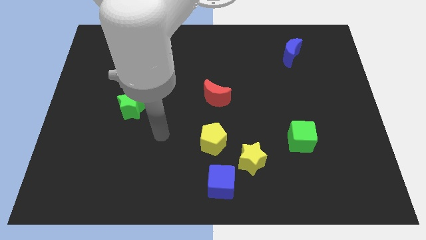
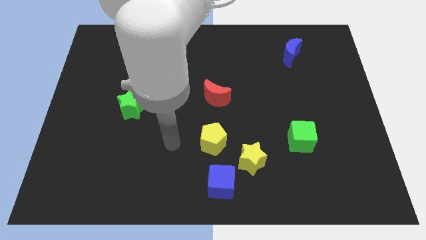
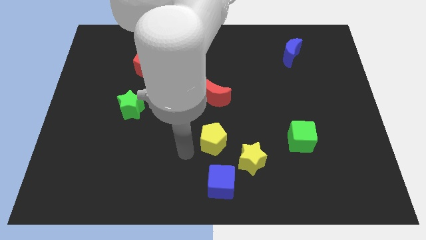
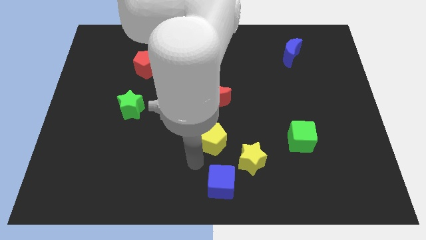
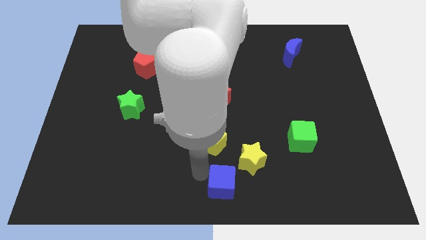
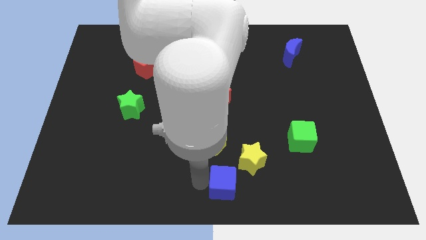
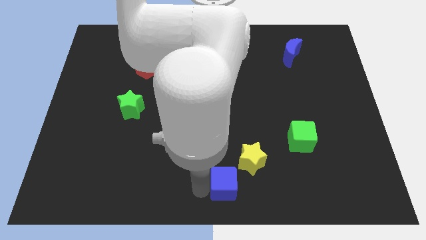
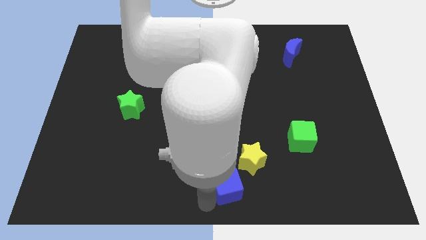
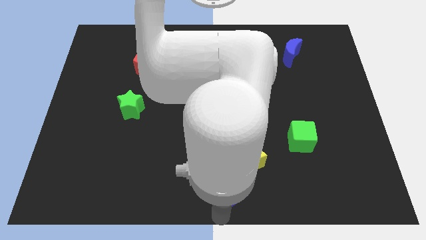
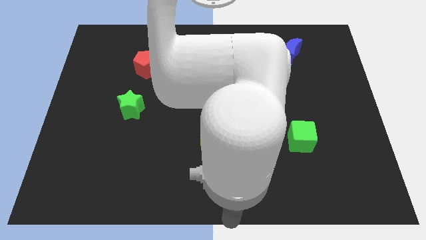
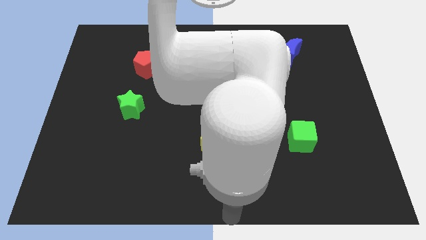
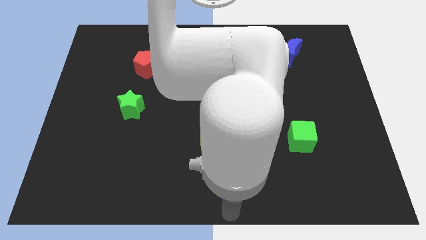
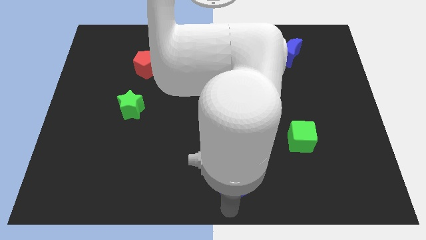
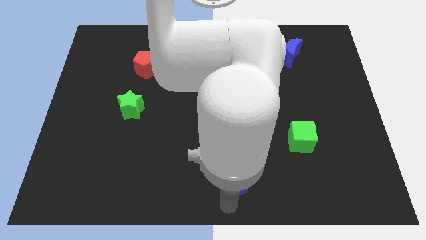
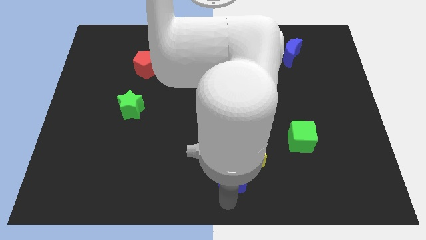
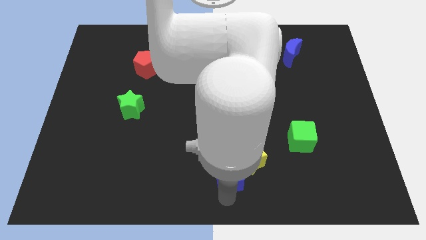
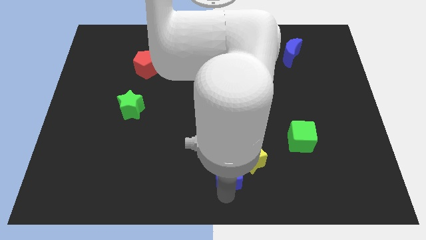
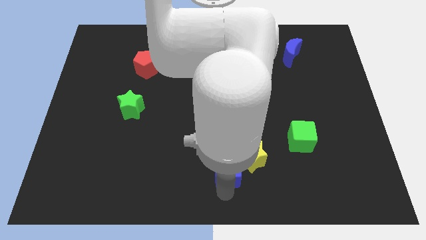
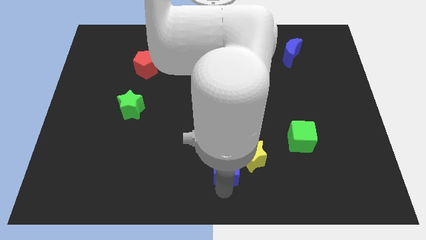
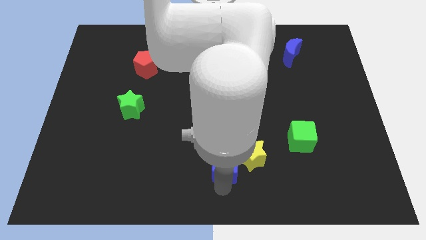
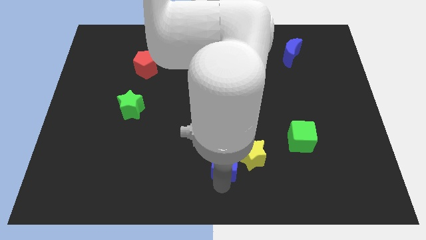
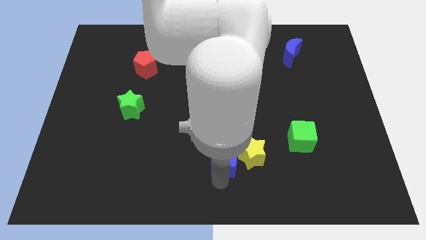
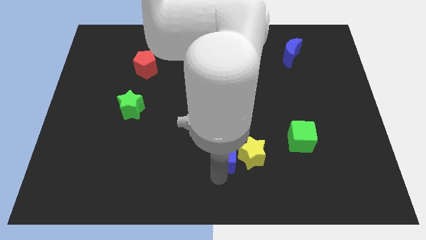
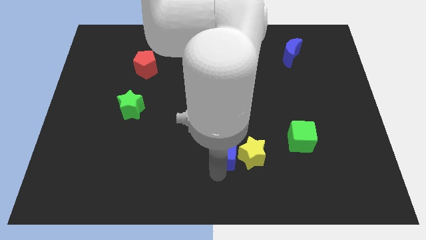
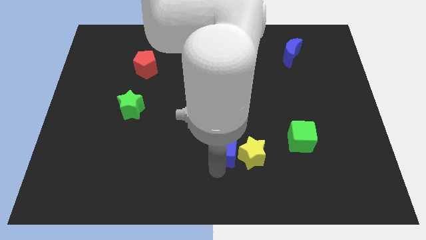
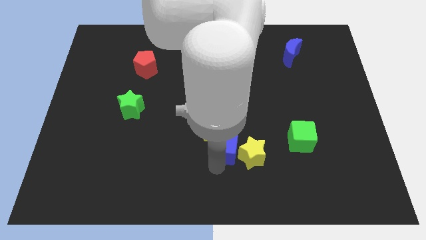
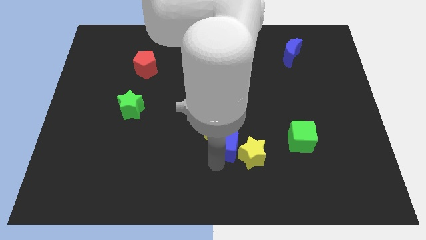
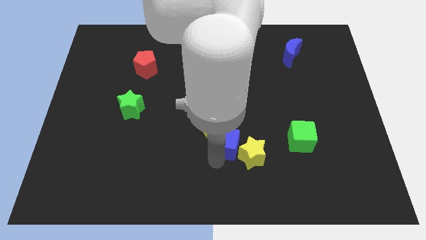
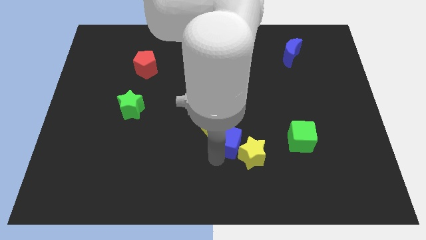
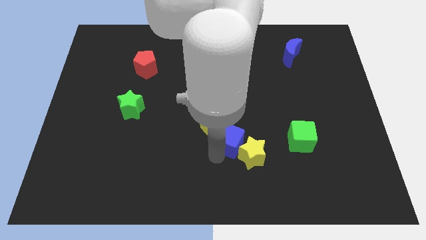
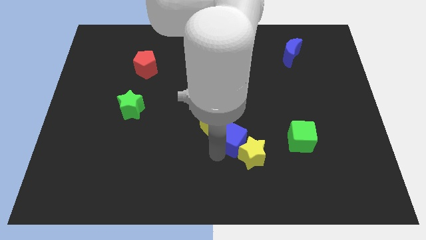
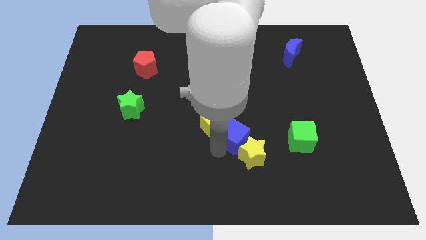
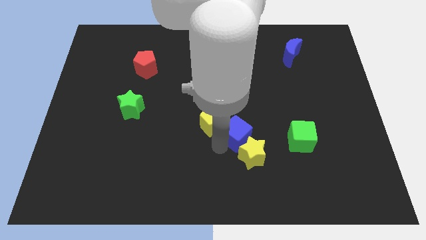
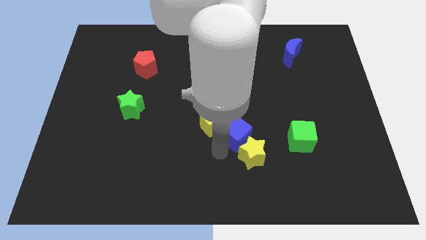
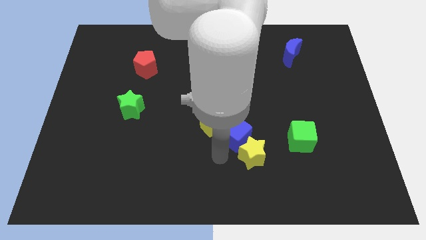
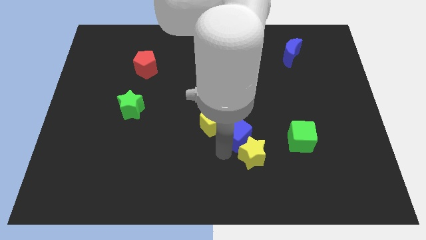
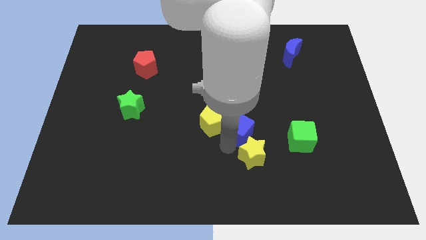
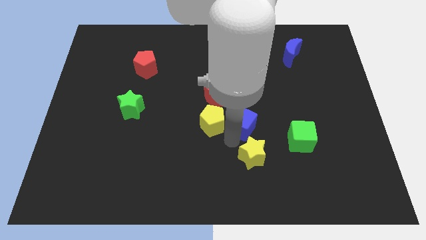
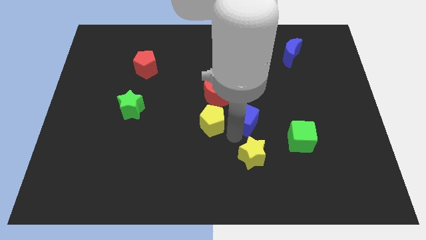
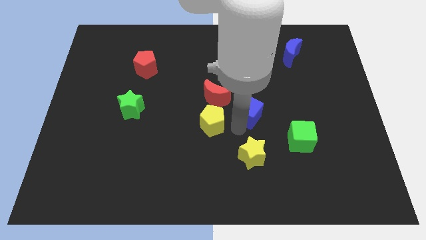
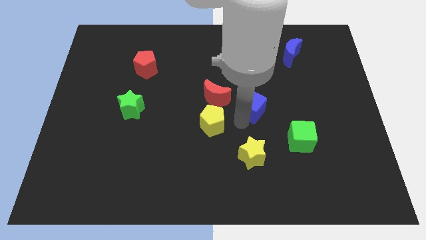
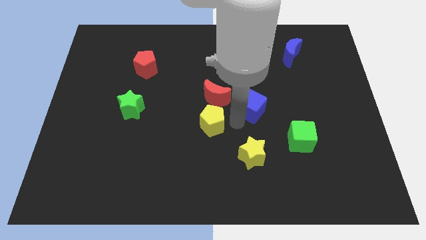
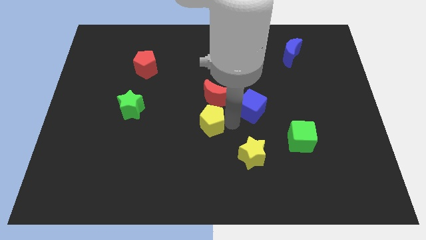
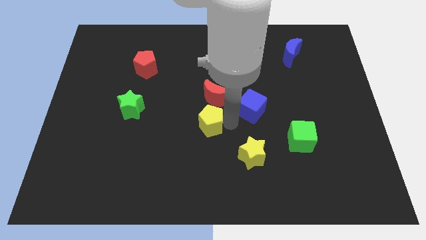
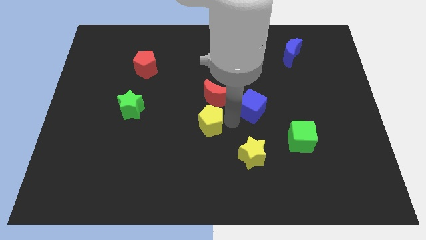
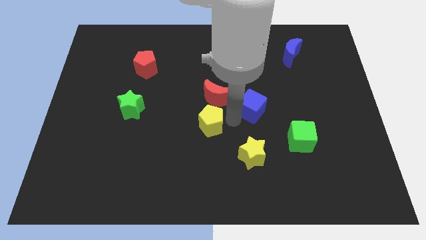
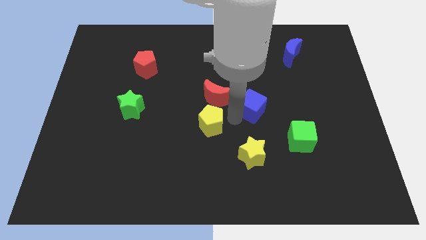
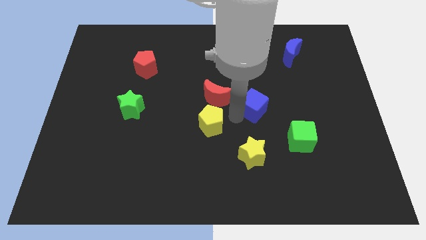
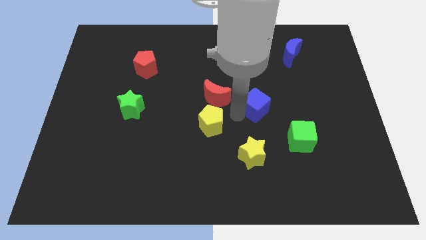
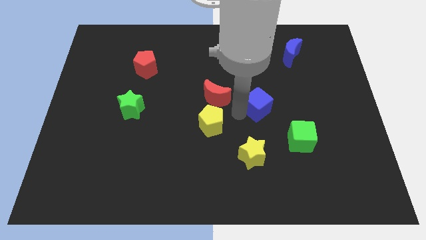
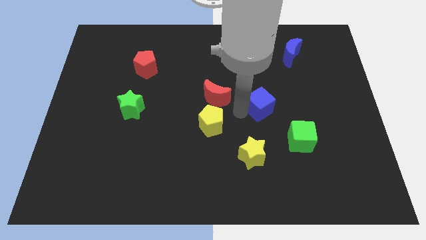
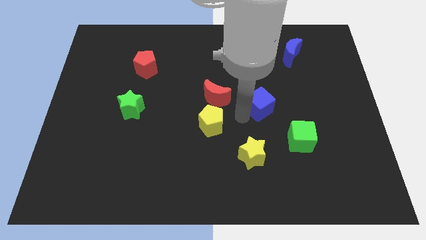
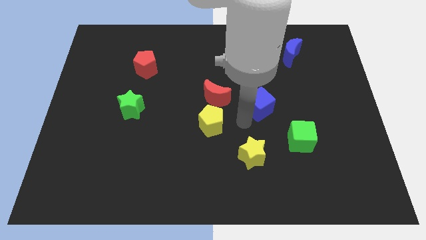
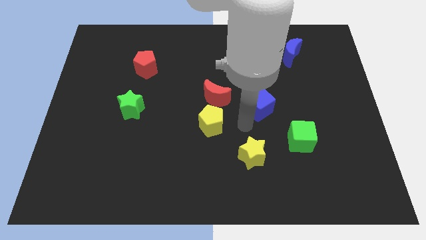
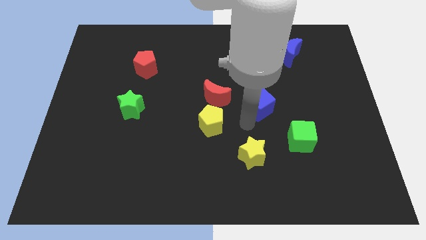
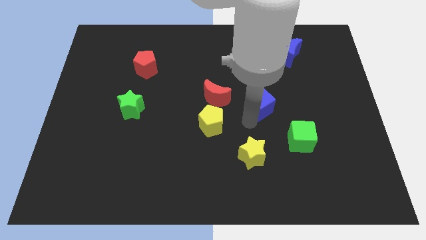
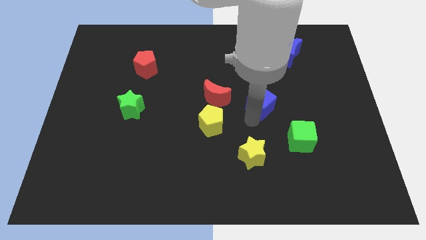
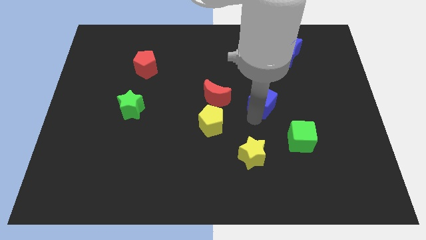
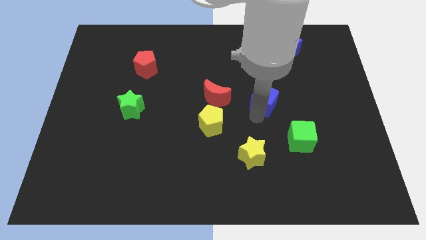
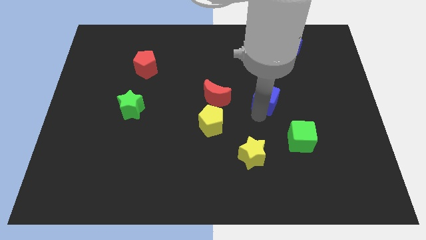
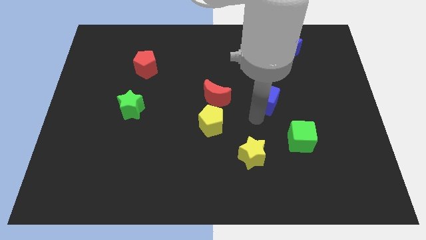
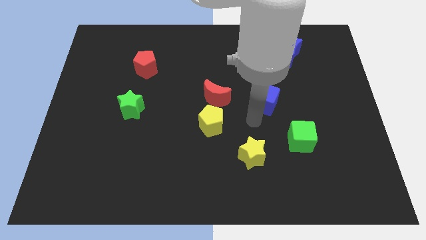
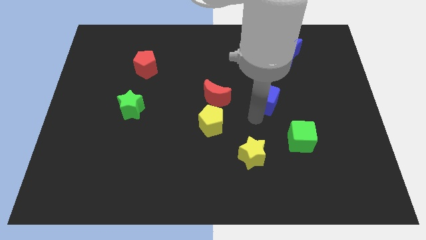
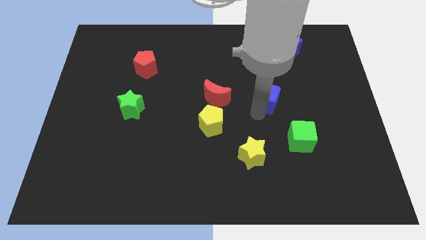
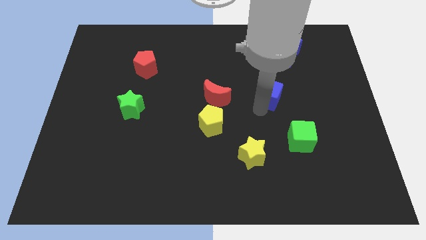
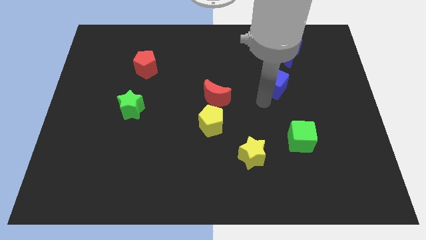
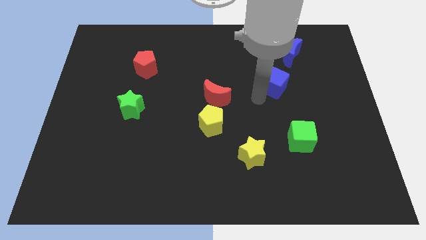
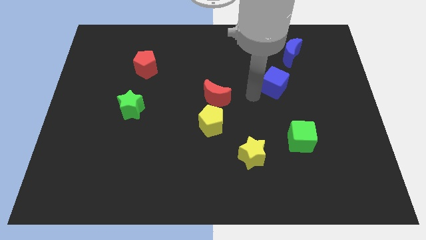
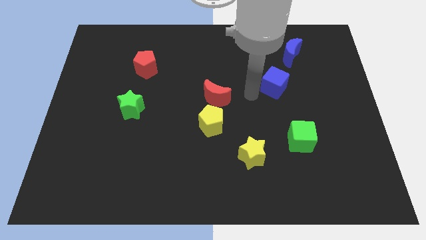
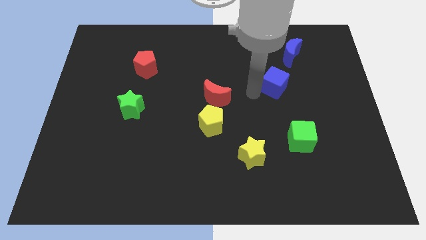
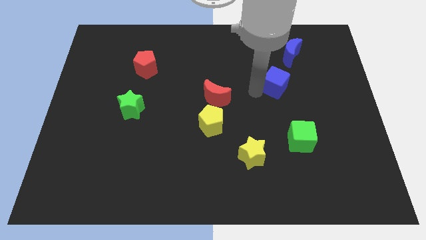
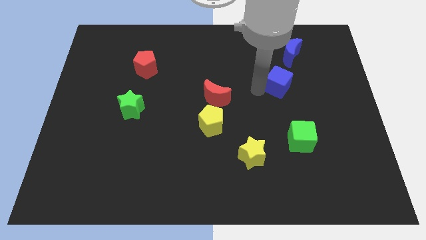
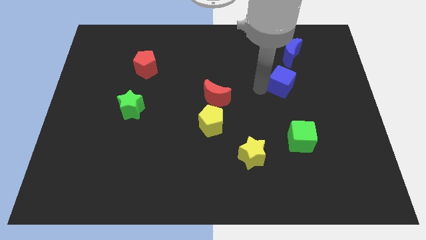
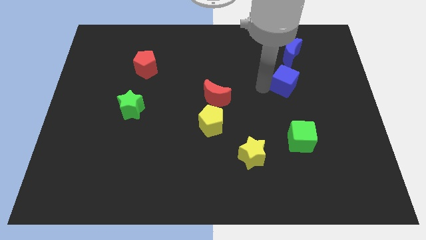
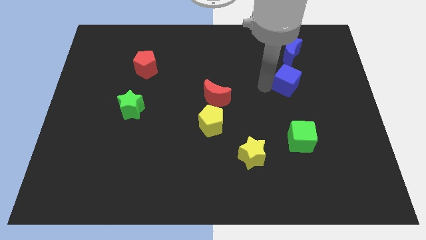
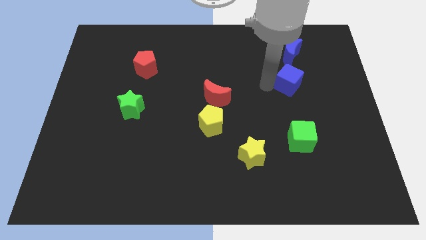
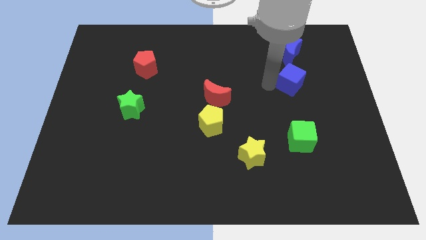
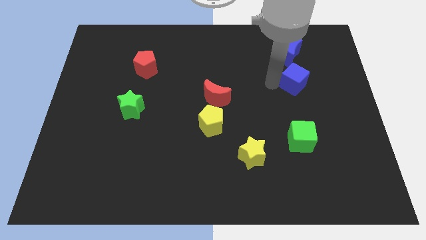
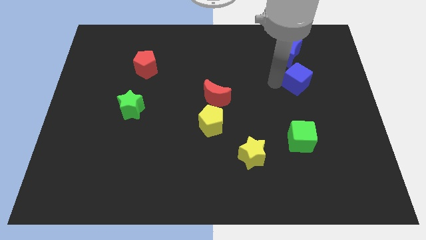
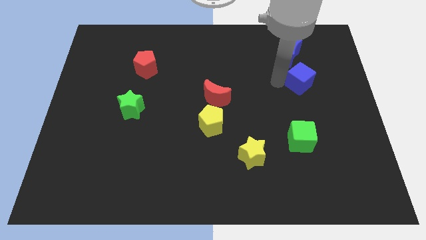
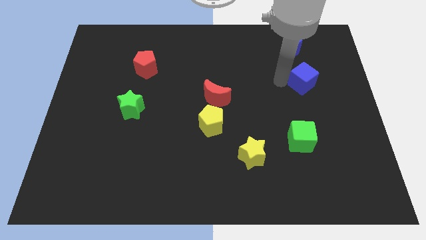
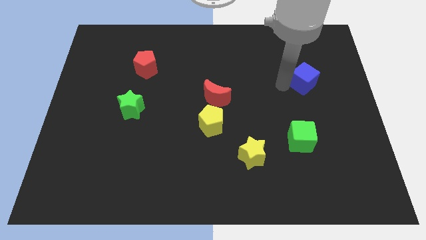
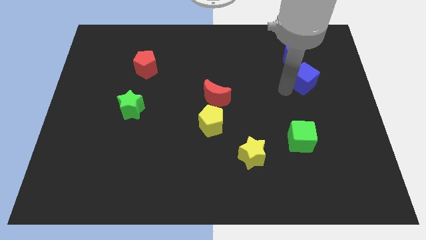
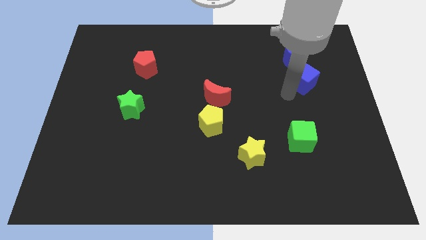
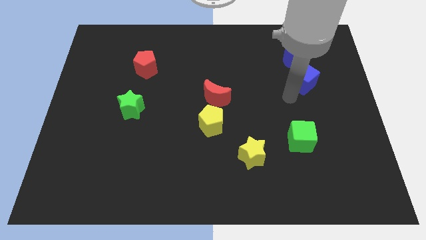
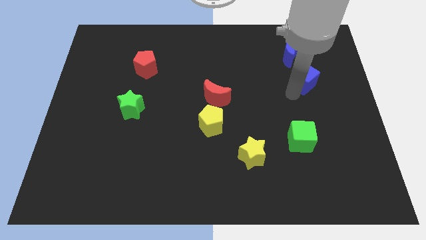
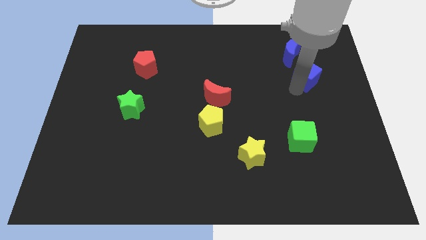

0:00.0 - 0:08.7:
push the blue cube diagonally down and to the right of the blue moon
